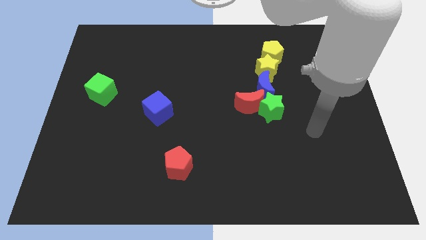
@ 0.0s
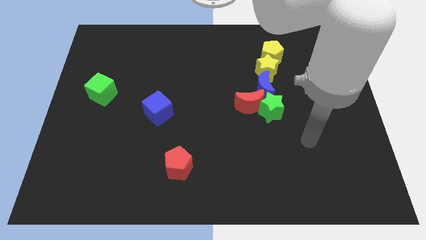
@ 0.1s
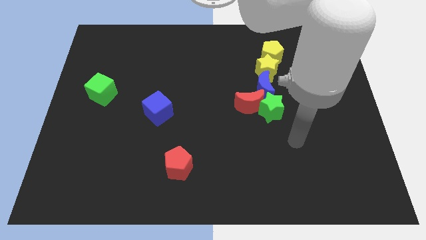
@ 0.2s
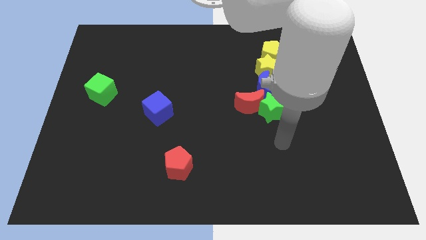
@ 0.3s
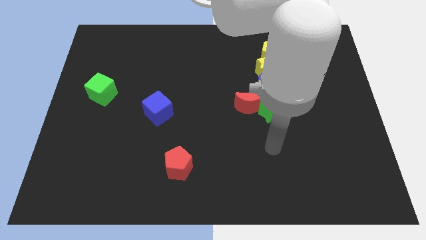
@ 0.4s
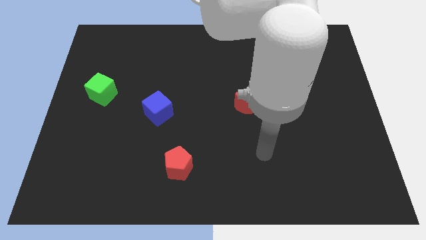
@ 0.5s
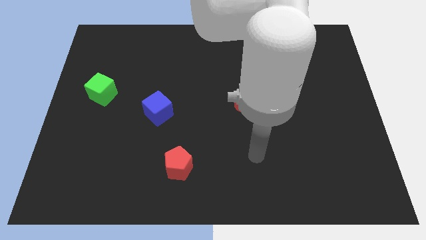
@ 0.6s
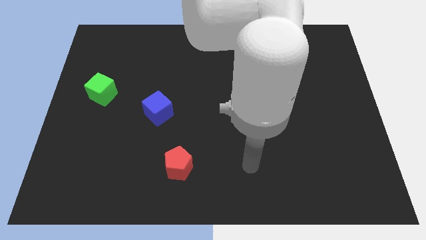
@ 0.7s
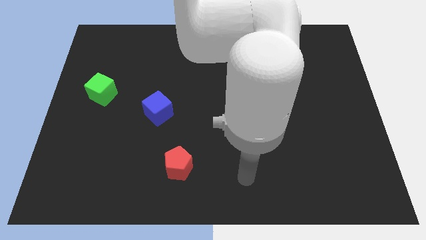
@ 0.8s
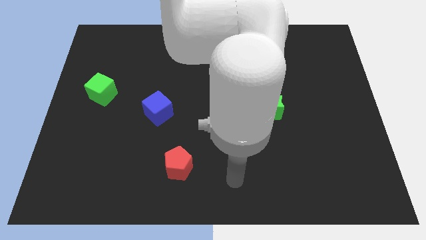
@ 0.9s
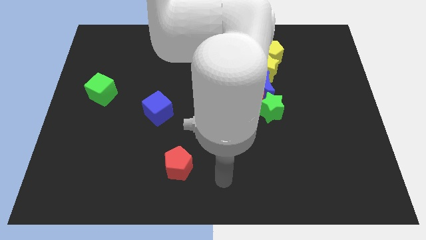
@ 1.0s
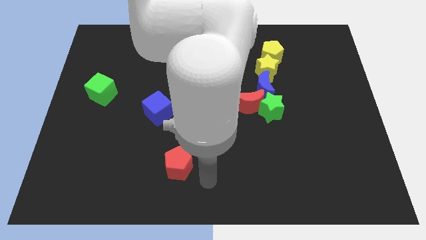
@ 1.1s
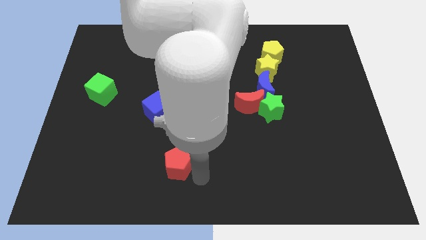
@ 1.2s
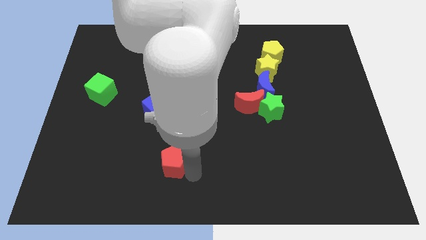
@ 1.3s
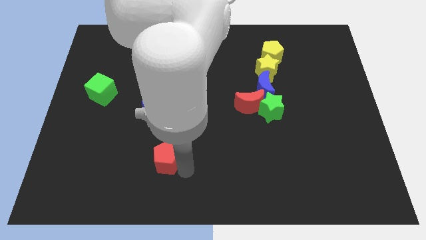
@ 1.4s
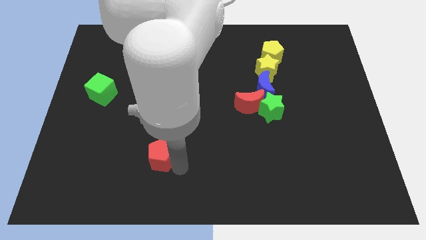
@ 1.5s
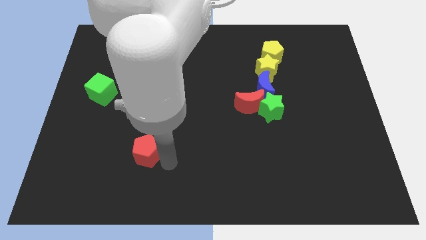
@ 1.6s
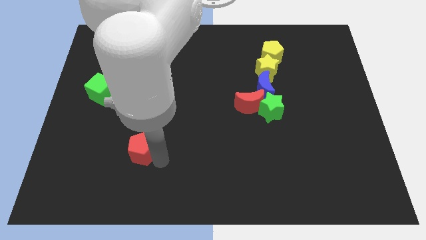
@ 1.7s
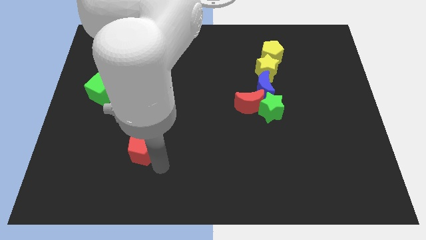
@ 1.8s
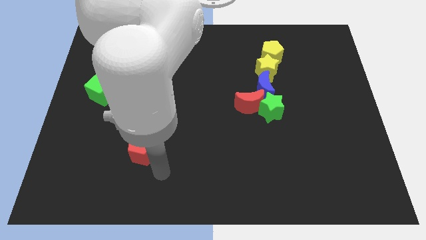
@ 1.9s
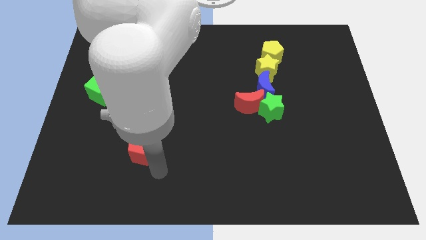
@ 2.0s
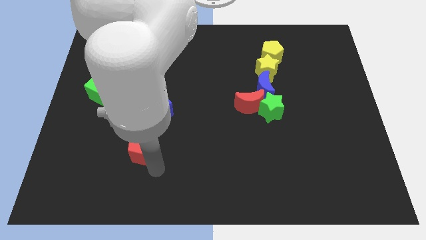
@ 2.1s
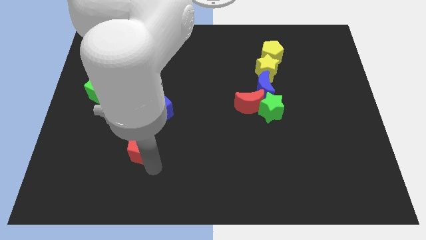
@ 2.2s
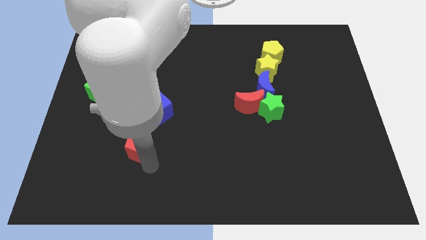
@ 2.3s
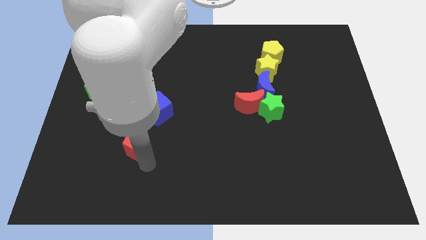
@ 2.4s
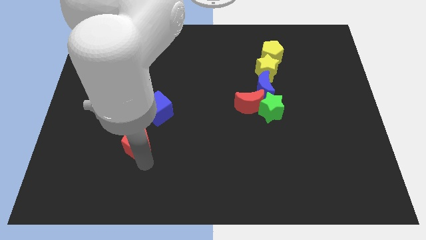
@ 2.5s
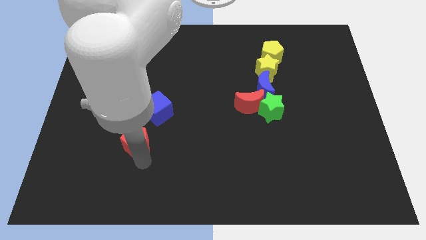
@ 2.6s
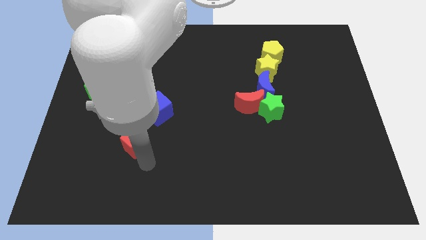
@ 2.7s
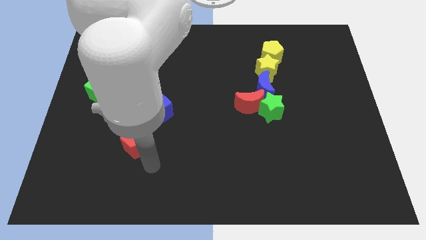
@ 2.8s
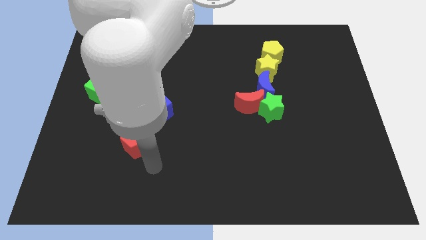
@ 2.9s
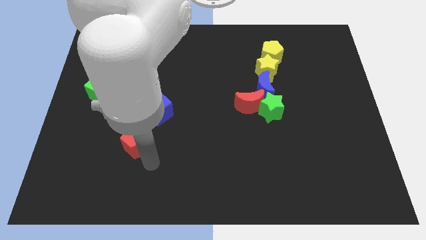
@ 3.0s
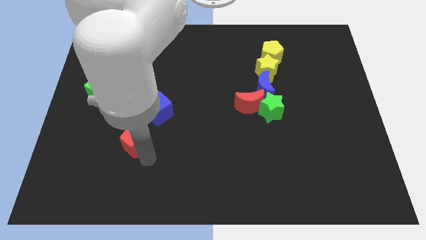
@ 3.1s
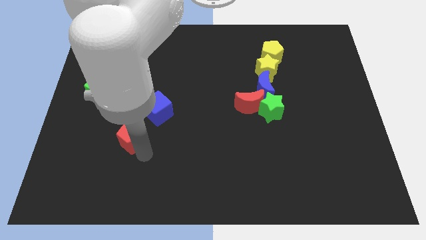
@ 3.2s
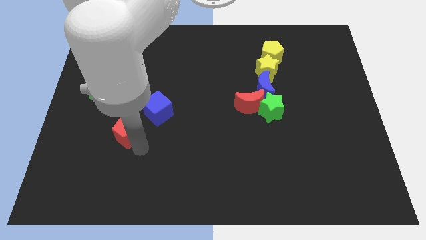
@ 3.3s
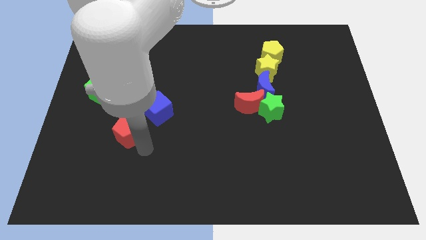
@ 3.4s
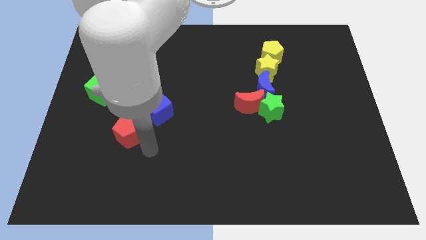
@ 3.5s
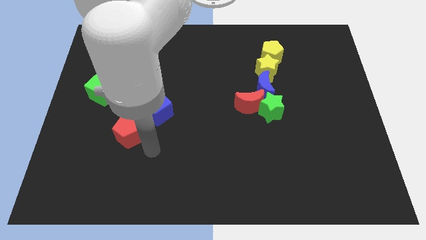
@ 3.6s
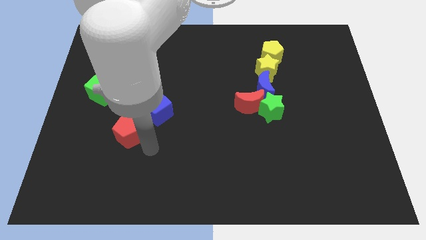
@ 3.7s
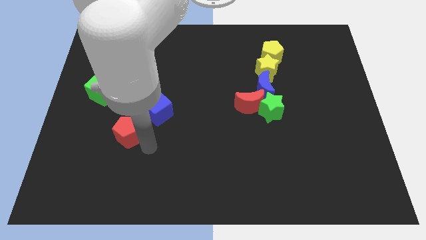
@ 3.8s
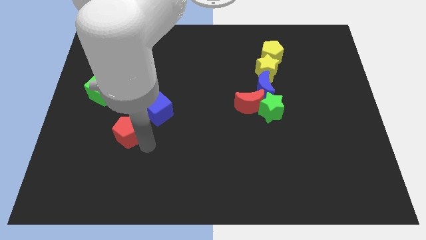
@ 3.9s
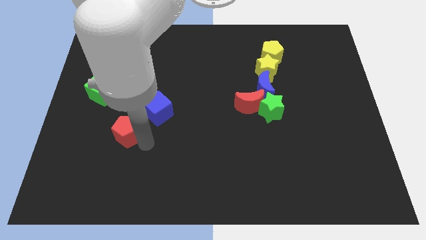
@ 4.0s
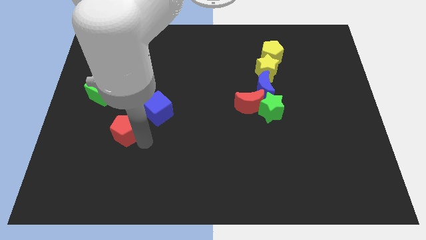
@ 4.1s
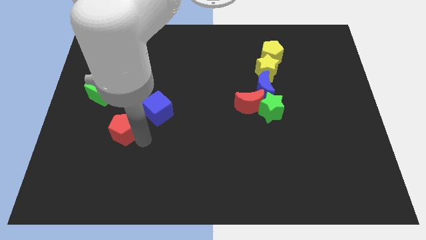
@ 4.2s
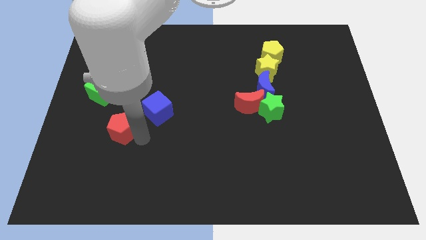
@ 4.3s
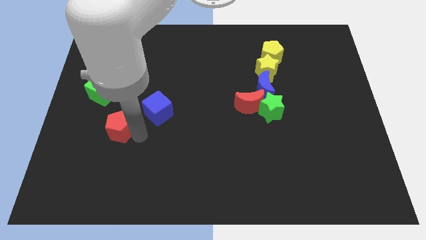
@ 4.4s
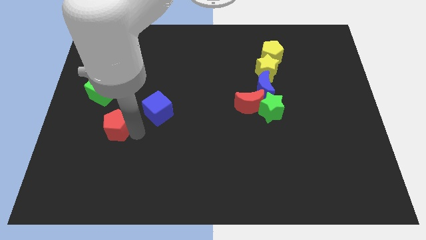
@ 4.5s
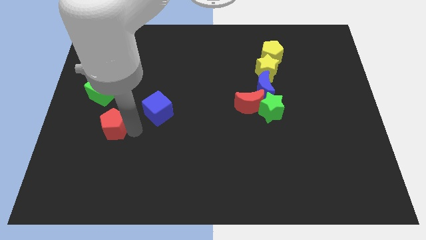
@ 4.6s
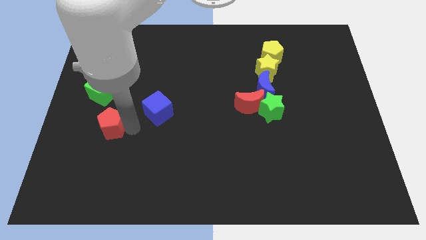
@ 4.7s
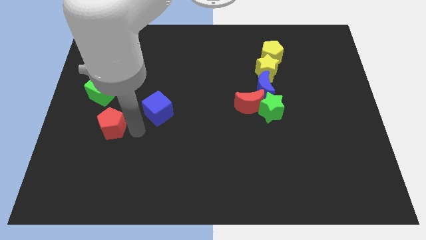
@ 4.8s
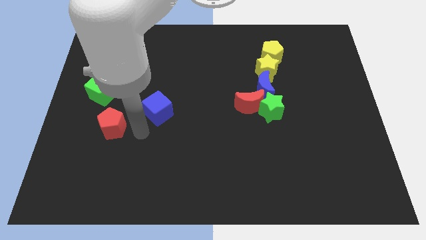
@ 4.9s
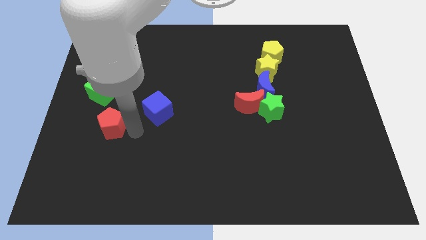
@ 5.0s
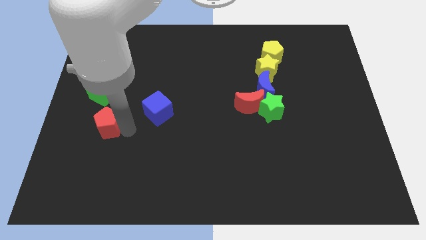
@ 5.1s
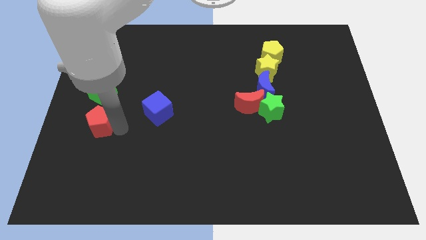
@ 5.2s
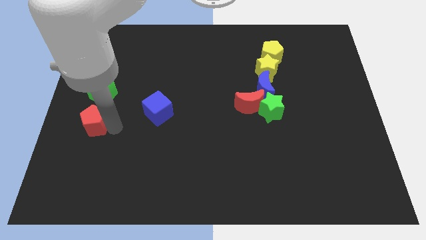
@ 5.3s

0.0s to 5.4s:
slide the red pentagon to the left side
